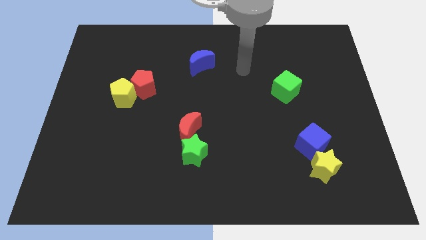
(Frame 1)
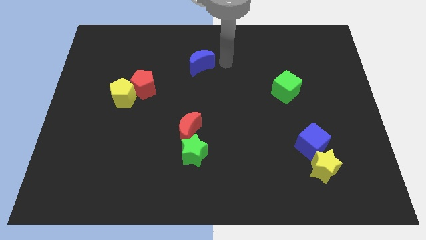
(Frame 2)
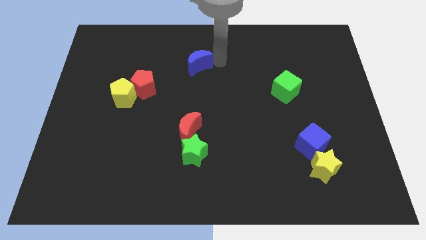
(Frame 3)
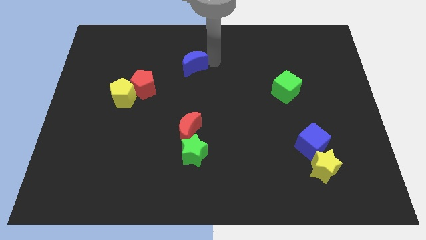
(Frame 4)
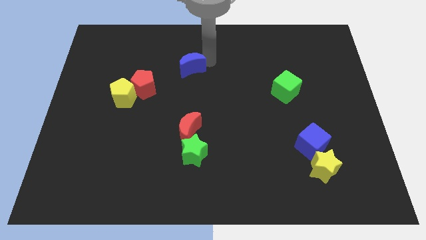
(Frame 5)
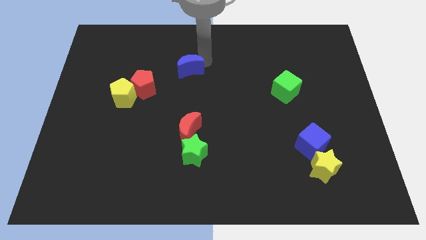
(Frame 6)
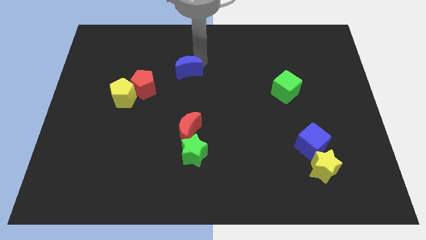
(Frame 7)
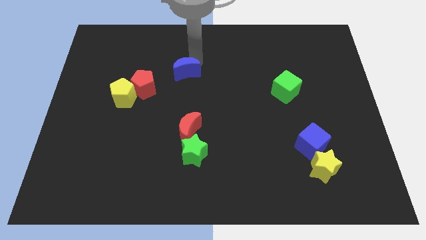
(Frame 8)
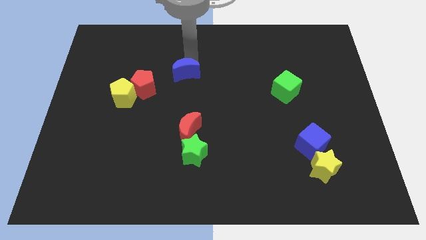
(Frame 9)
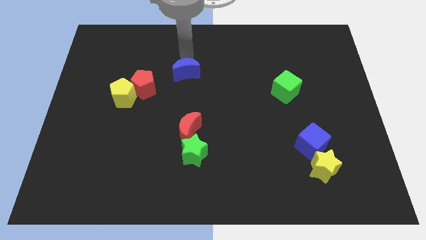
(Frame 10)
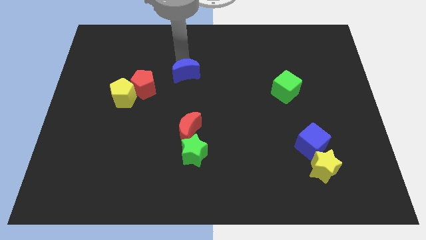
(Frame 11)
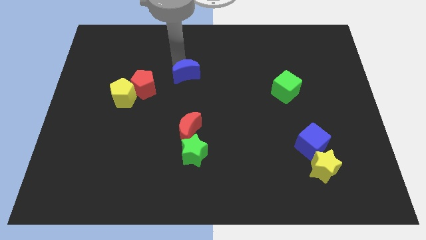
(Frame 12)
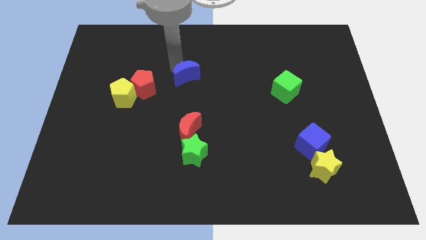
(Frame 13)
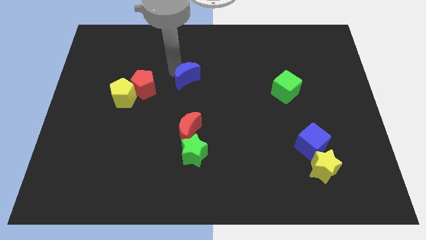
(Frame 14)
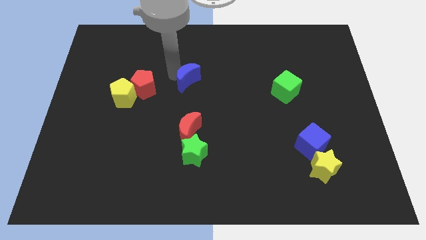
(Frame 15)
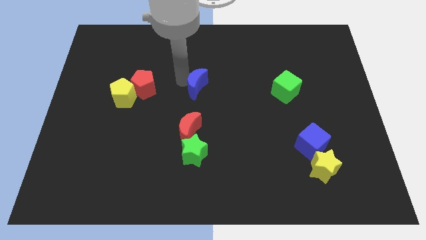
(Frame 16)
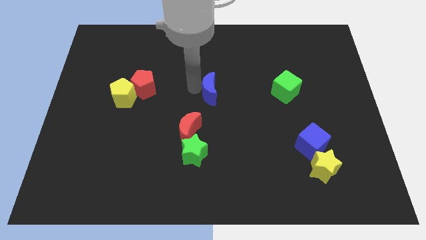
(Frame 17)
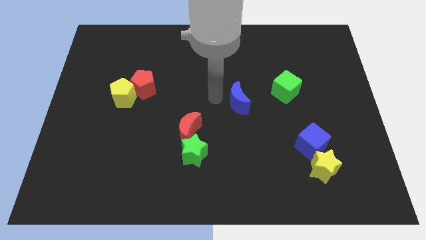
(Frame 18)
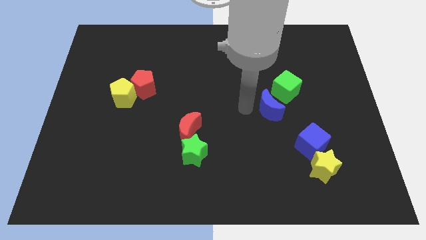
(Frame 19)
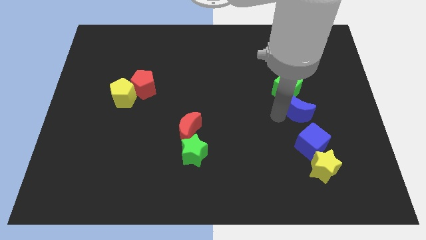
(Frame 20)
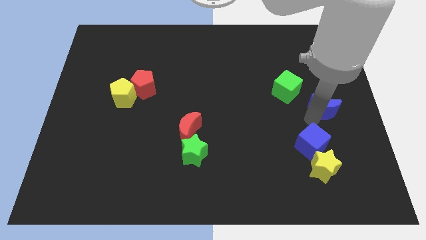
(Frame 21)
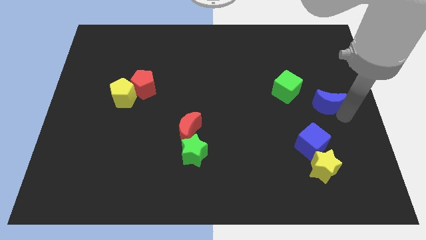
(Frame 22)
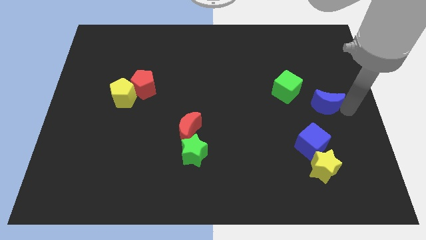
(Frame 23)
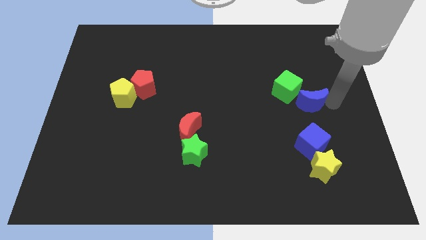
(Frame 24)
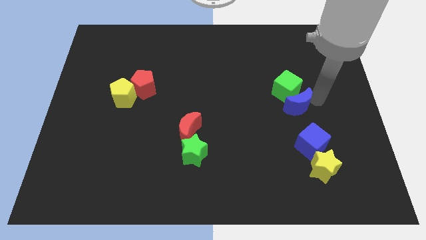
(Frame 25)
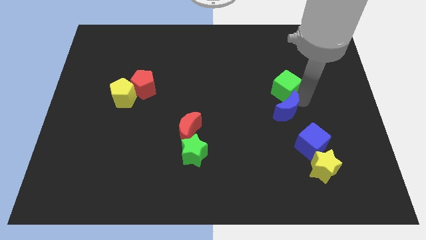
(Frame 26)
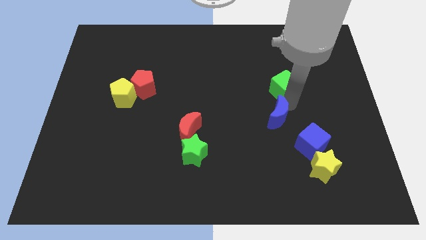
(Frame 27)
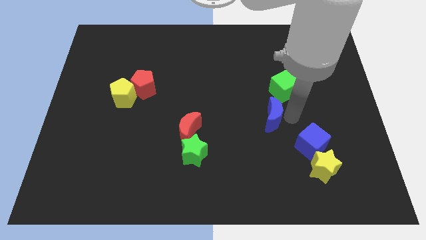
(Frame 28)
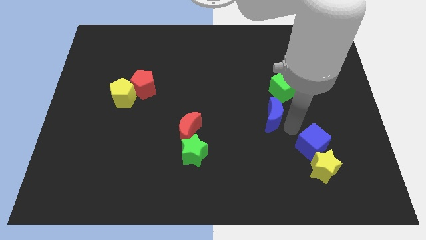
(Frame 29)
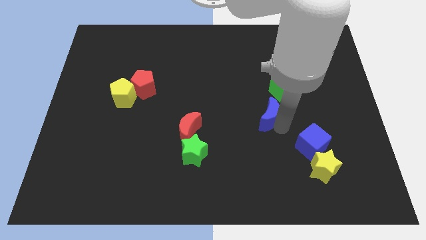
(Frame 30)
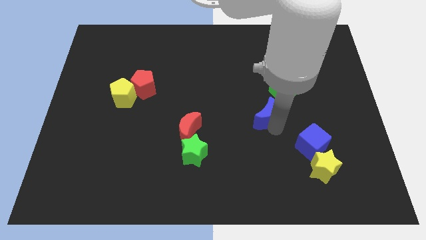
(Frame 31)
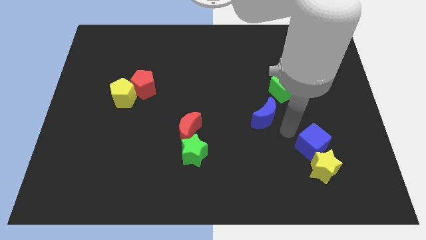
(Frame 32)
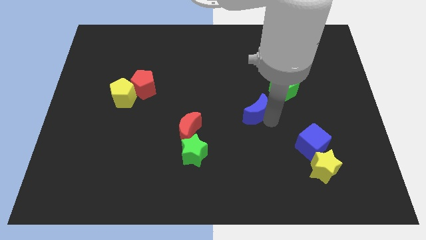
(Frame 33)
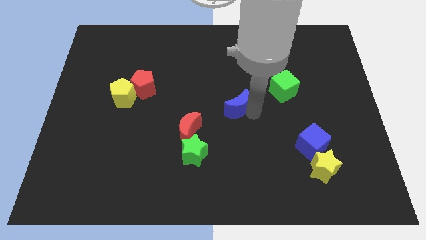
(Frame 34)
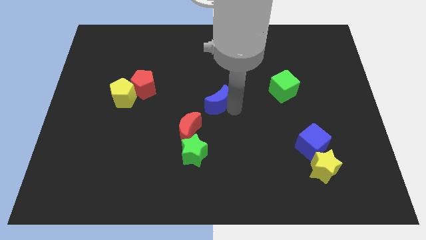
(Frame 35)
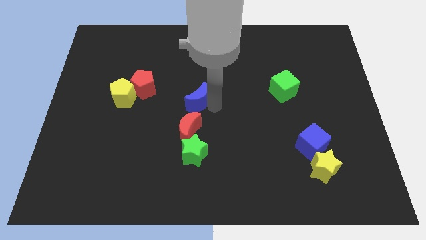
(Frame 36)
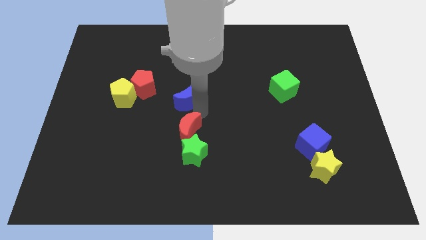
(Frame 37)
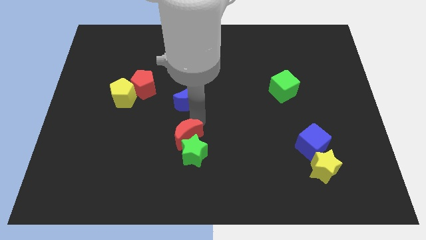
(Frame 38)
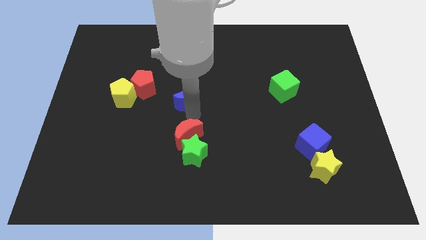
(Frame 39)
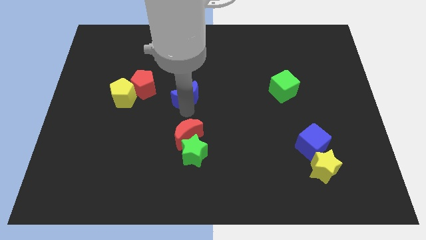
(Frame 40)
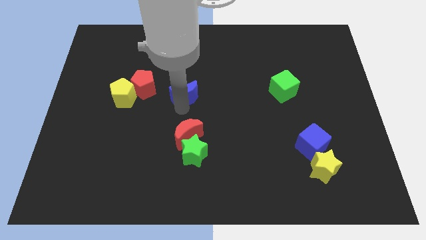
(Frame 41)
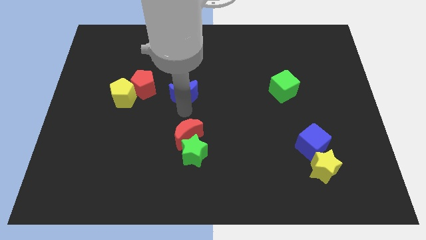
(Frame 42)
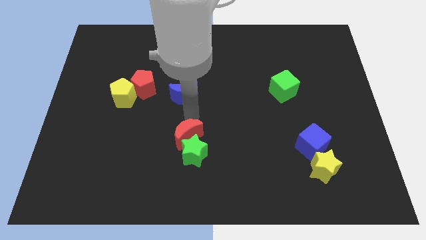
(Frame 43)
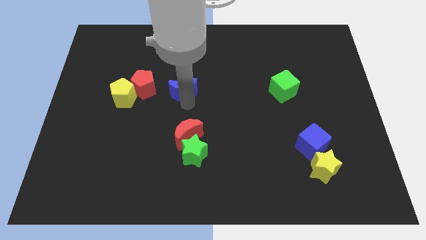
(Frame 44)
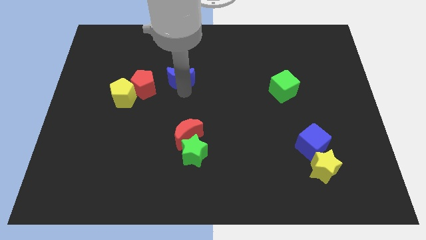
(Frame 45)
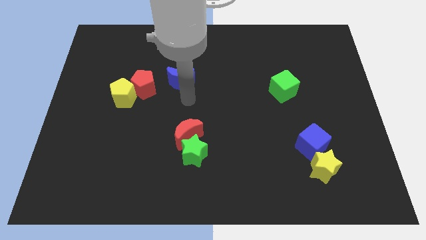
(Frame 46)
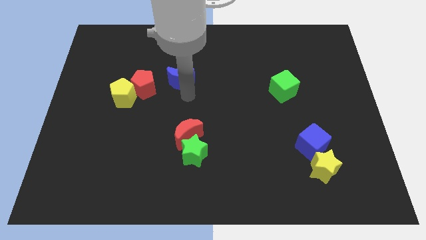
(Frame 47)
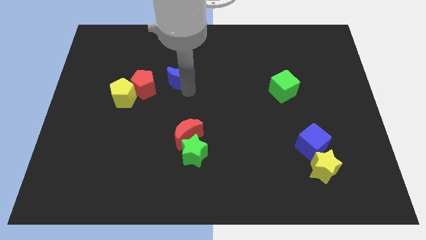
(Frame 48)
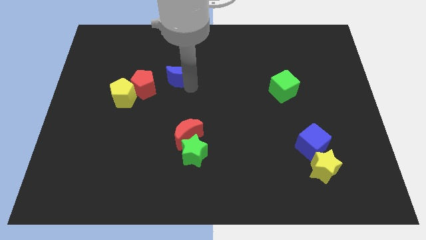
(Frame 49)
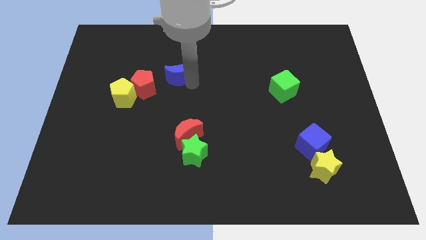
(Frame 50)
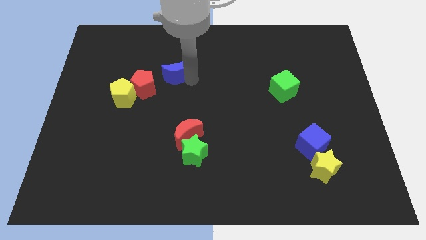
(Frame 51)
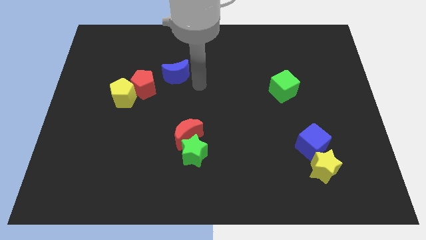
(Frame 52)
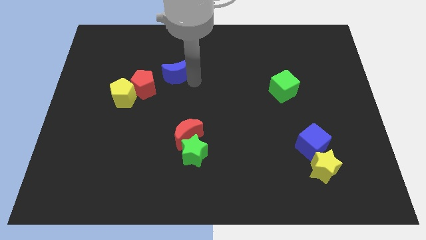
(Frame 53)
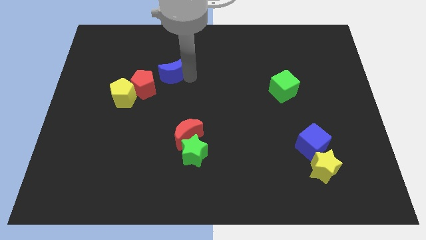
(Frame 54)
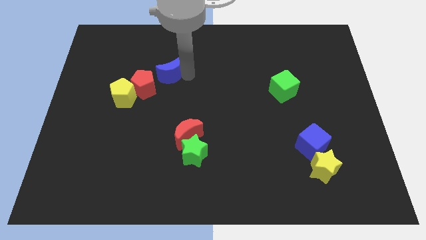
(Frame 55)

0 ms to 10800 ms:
slightly slide the blue moon left

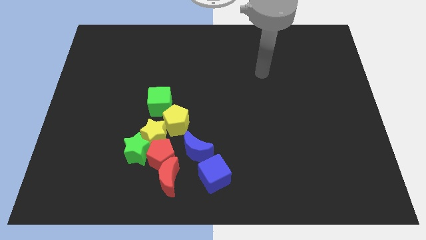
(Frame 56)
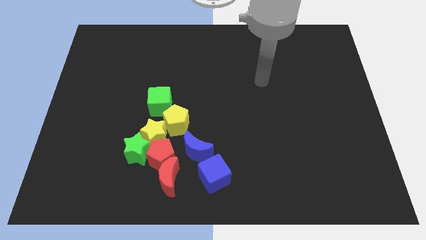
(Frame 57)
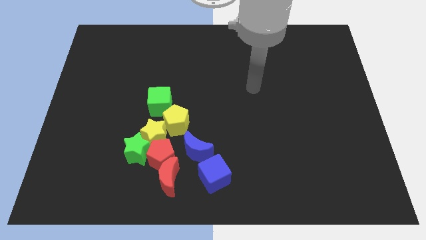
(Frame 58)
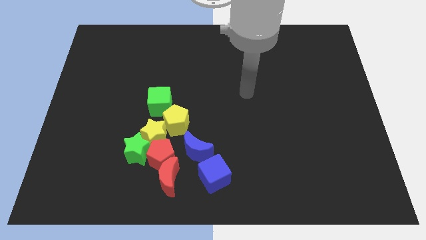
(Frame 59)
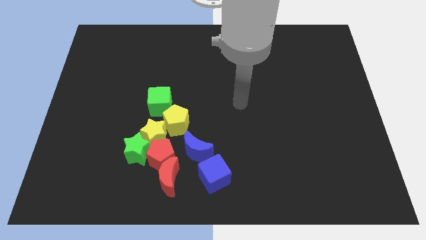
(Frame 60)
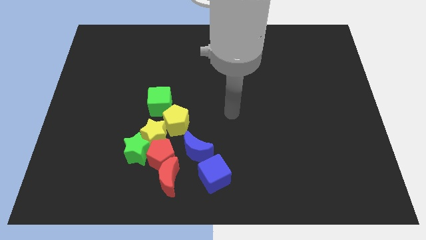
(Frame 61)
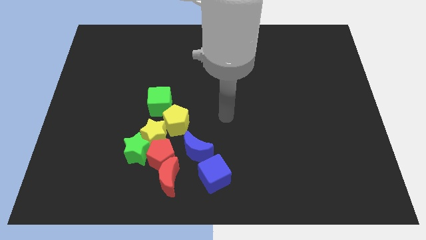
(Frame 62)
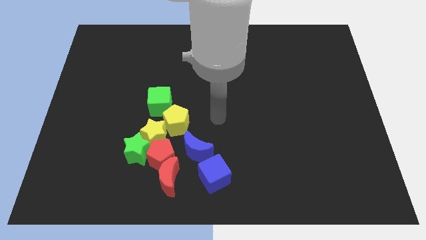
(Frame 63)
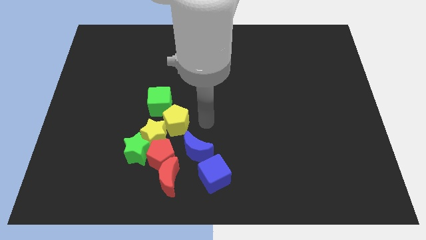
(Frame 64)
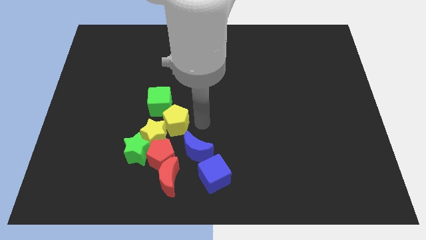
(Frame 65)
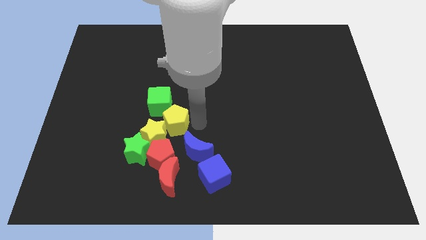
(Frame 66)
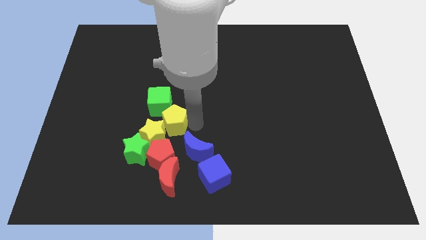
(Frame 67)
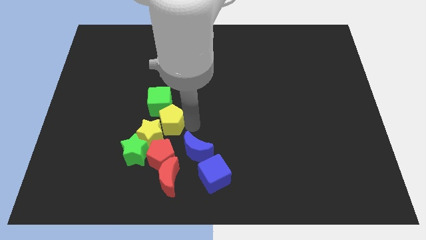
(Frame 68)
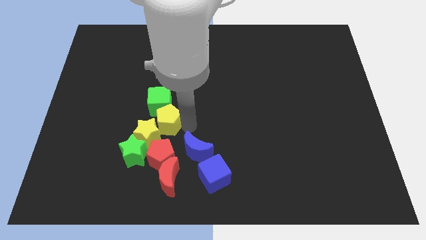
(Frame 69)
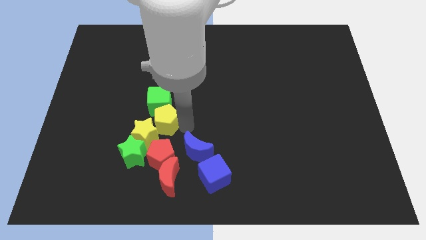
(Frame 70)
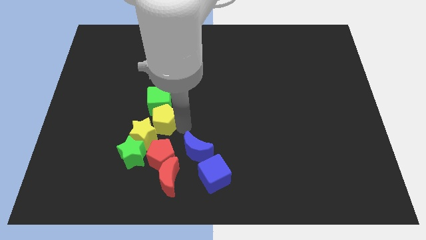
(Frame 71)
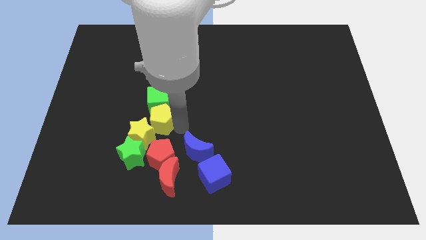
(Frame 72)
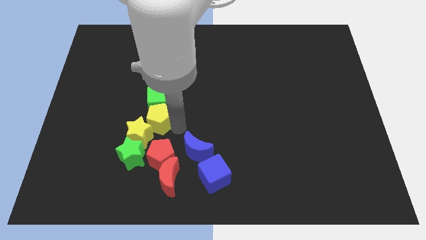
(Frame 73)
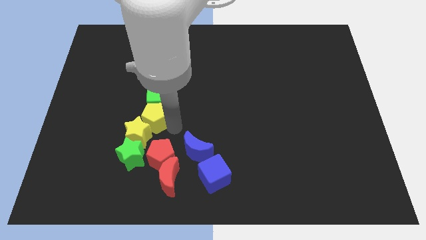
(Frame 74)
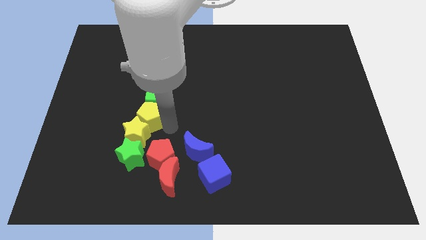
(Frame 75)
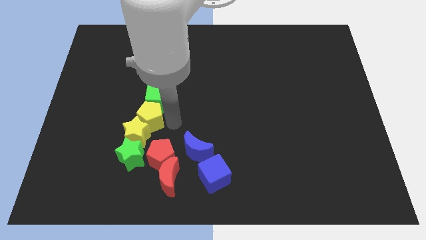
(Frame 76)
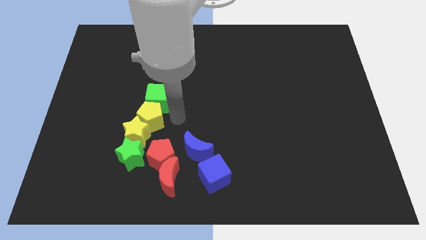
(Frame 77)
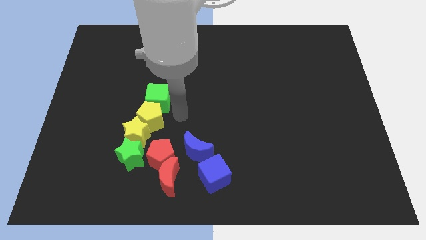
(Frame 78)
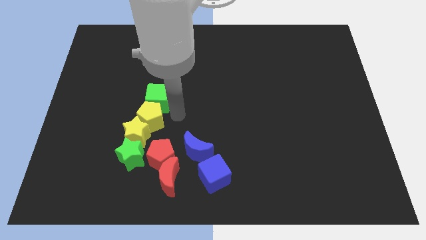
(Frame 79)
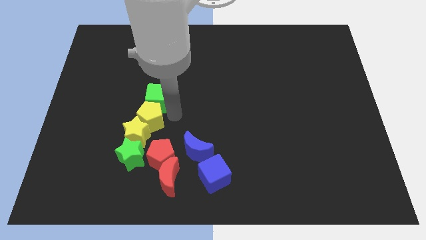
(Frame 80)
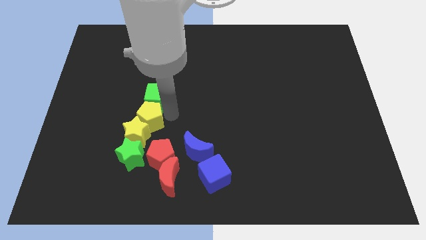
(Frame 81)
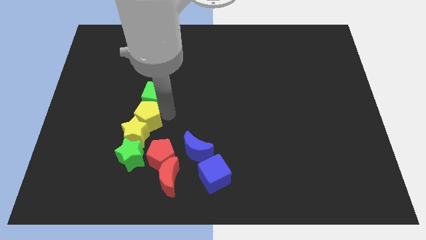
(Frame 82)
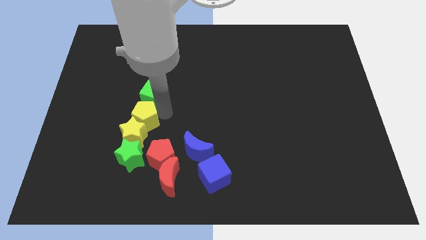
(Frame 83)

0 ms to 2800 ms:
slide the yellow pentagon to the left slightly

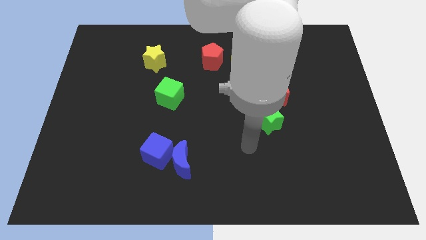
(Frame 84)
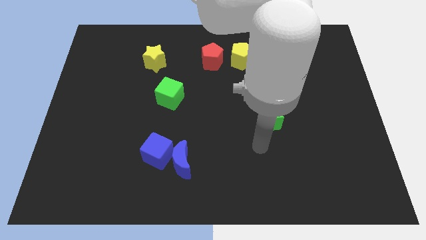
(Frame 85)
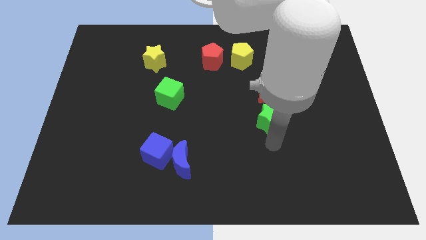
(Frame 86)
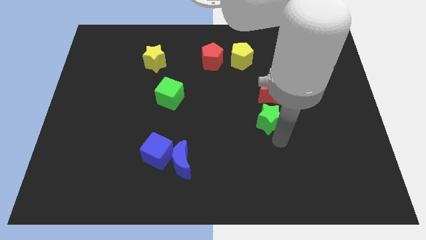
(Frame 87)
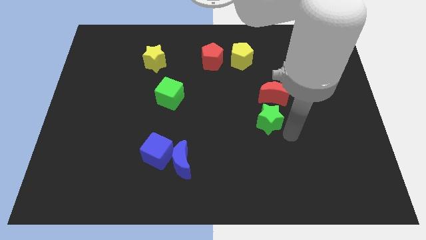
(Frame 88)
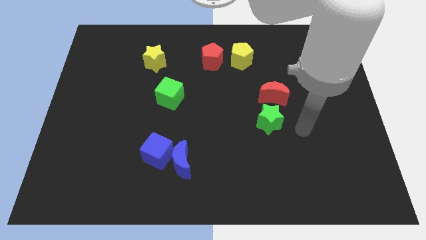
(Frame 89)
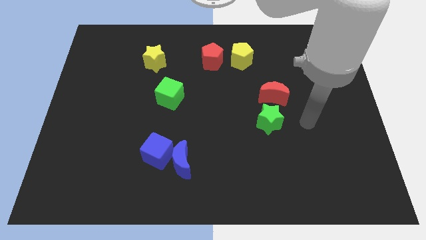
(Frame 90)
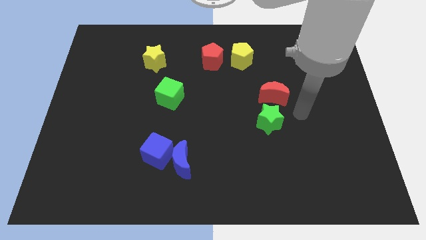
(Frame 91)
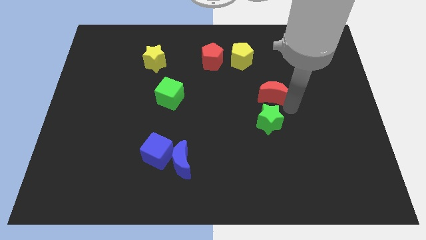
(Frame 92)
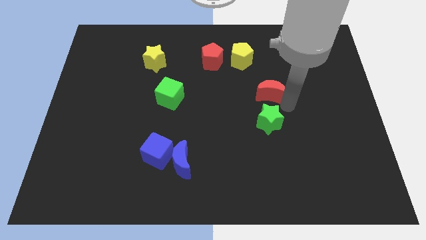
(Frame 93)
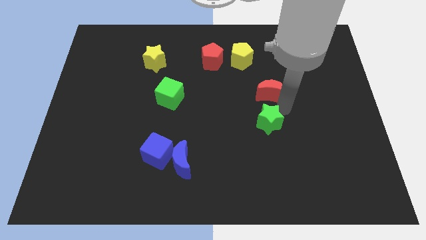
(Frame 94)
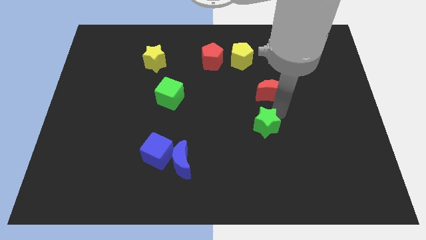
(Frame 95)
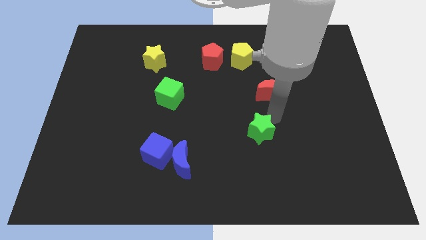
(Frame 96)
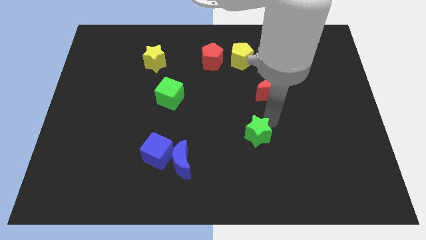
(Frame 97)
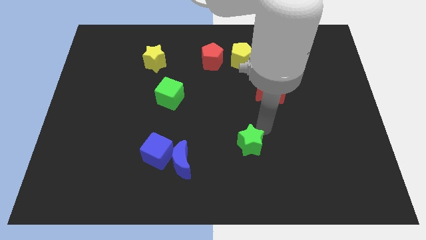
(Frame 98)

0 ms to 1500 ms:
slightly slide the green star down and then to the left
